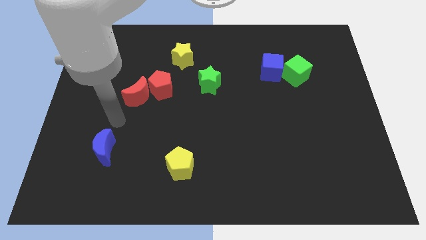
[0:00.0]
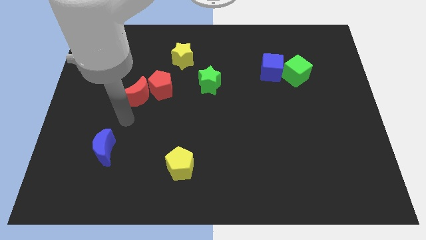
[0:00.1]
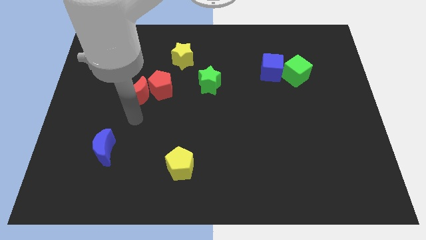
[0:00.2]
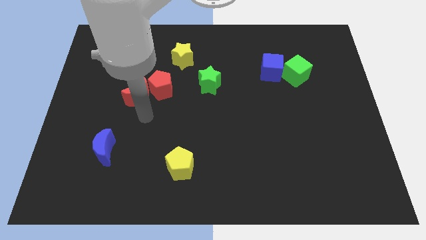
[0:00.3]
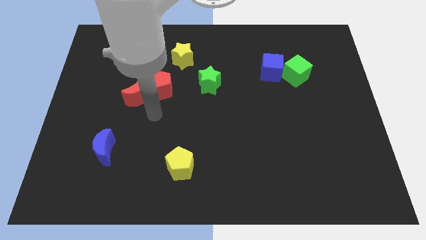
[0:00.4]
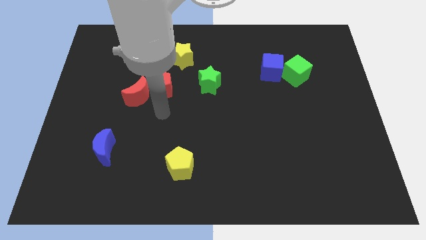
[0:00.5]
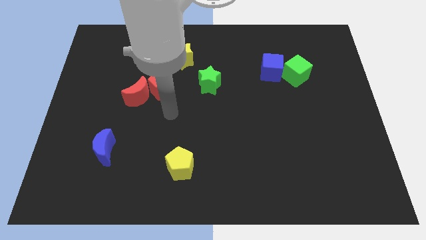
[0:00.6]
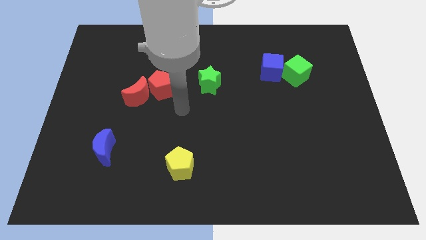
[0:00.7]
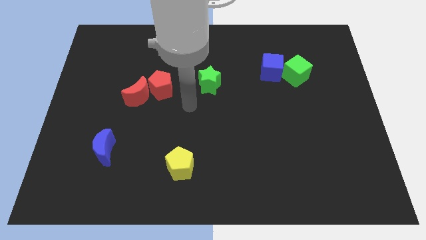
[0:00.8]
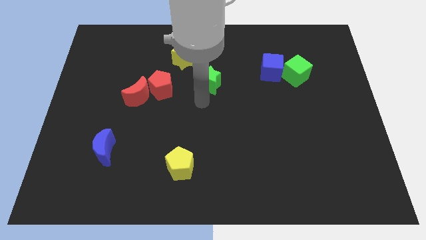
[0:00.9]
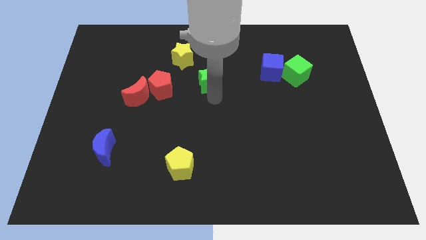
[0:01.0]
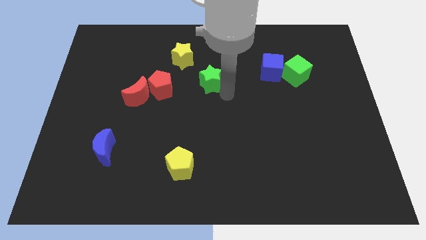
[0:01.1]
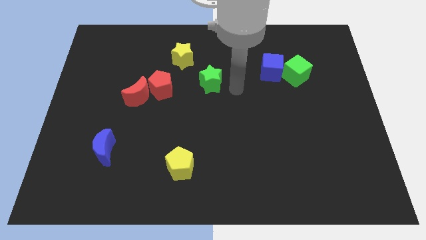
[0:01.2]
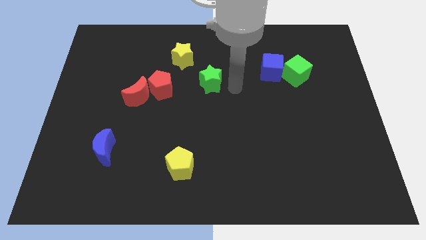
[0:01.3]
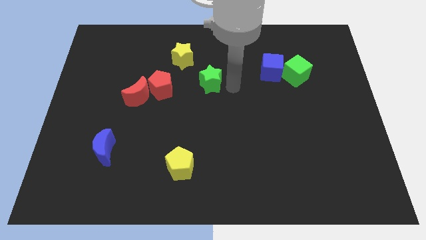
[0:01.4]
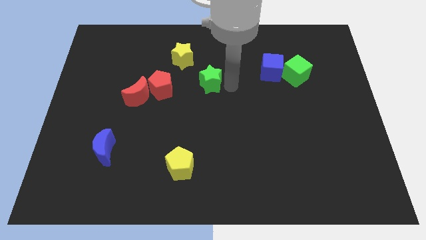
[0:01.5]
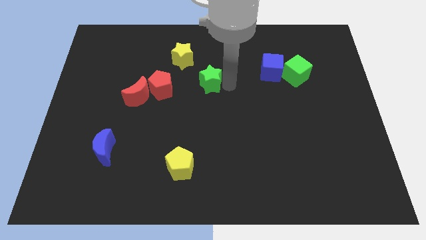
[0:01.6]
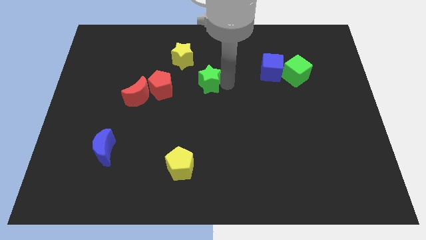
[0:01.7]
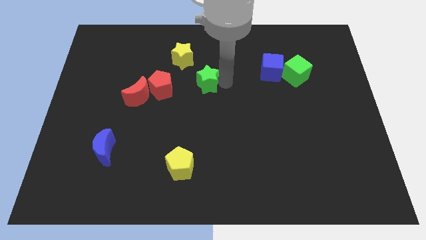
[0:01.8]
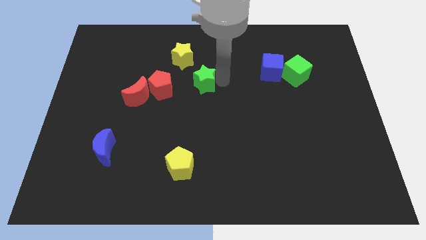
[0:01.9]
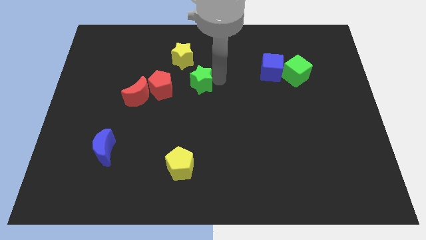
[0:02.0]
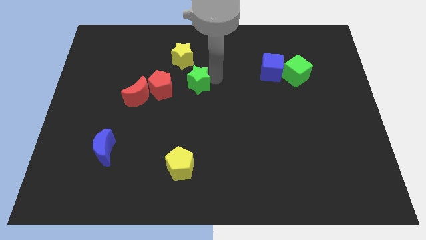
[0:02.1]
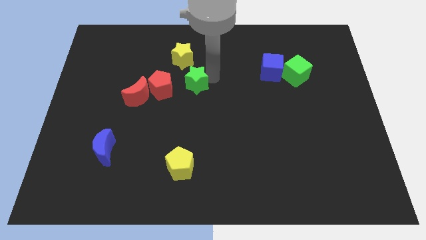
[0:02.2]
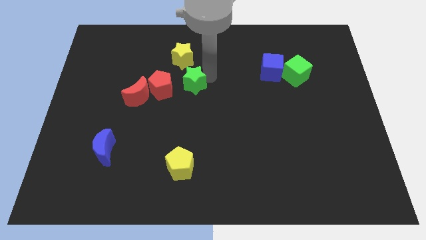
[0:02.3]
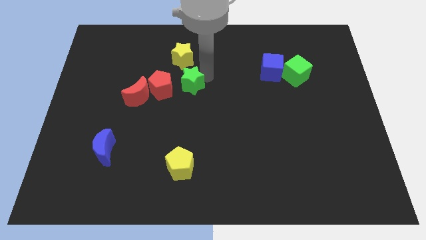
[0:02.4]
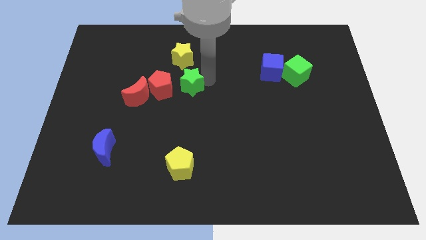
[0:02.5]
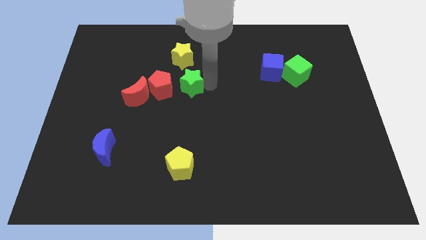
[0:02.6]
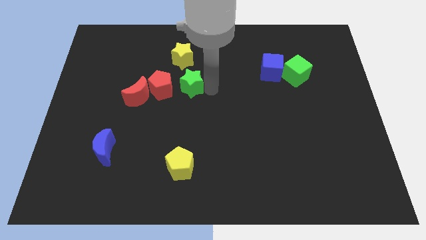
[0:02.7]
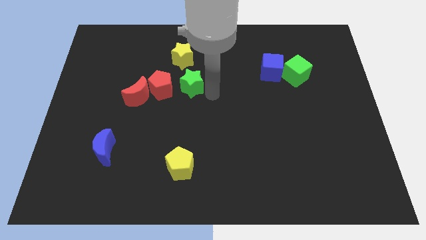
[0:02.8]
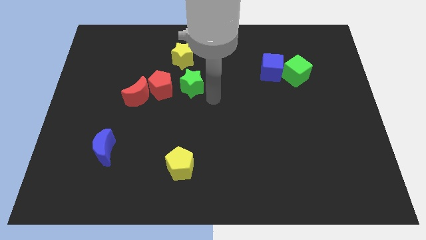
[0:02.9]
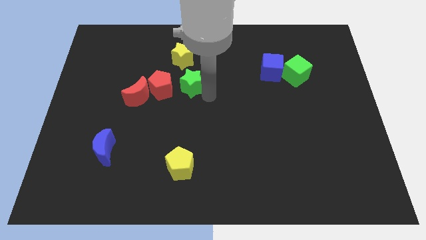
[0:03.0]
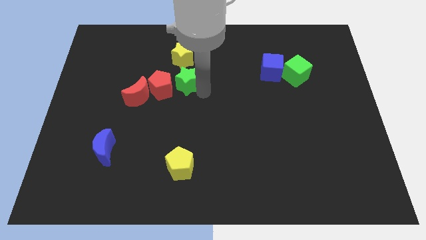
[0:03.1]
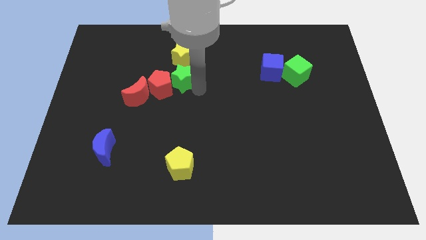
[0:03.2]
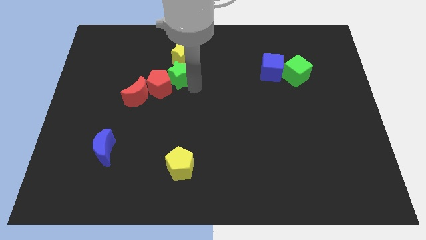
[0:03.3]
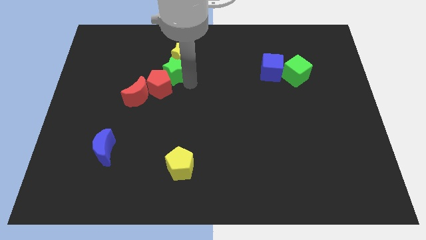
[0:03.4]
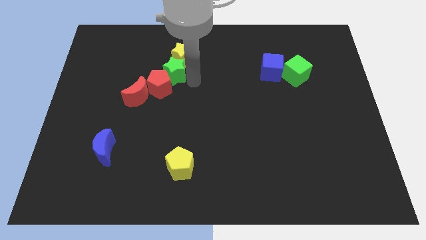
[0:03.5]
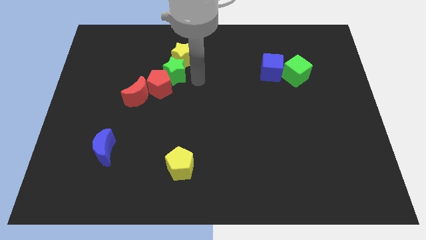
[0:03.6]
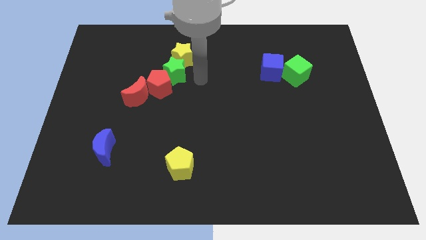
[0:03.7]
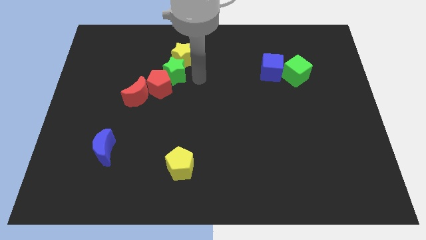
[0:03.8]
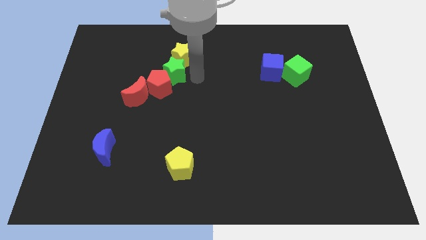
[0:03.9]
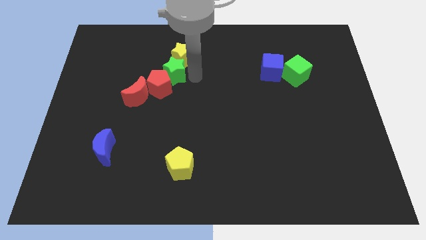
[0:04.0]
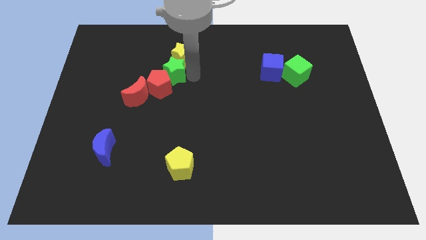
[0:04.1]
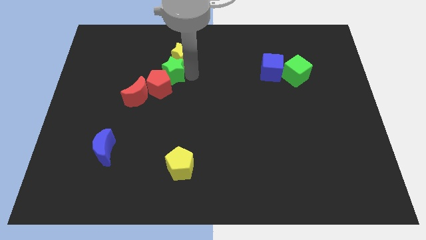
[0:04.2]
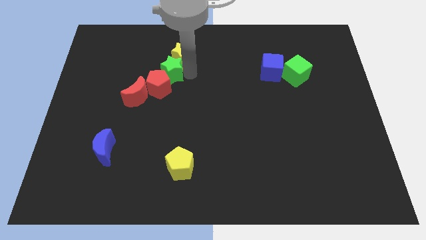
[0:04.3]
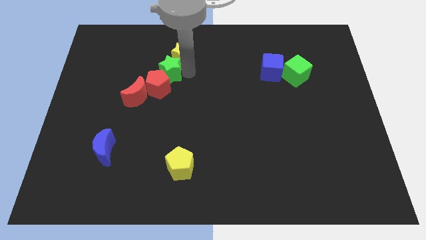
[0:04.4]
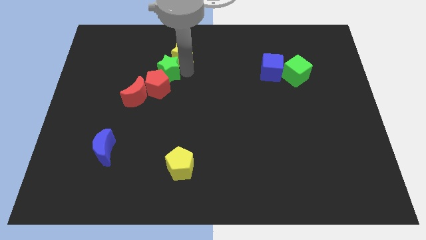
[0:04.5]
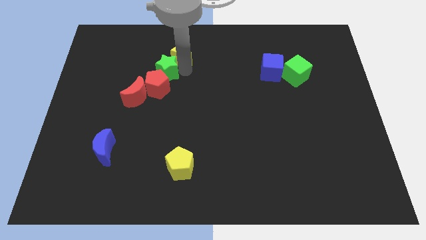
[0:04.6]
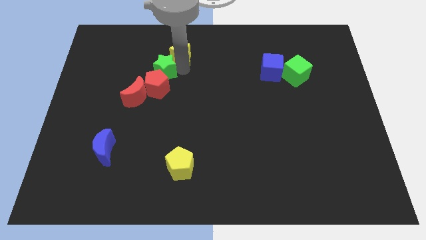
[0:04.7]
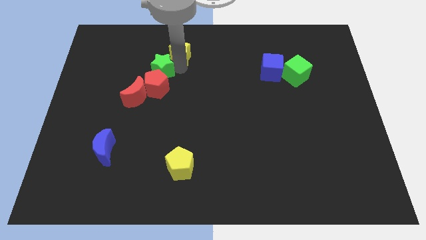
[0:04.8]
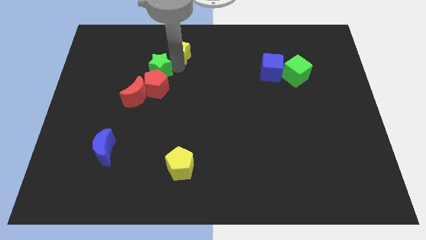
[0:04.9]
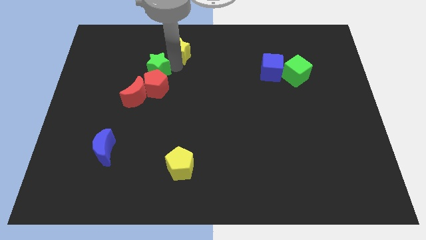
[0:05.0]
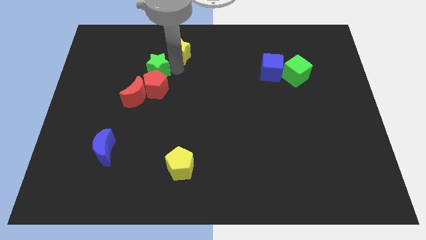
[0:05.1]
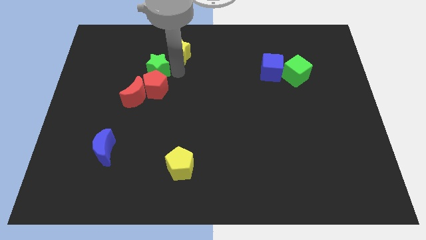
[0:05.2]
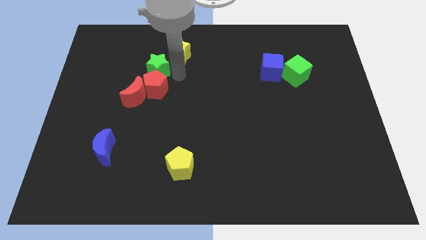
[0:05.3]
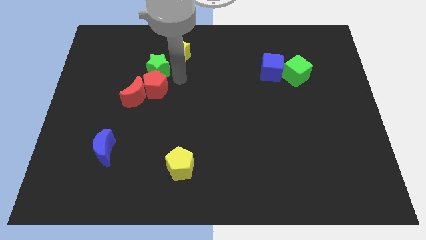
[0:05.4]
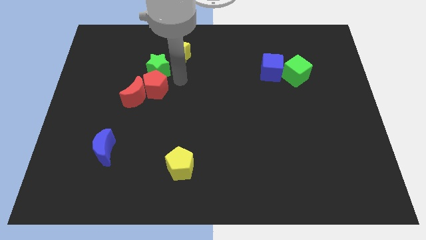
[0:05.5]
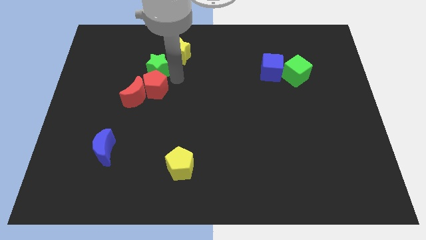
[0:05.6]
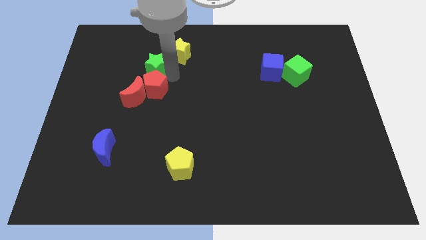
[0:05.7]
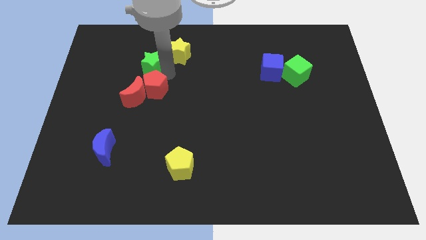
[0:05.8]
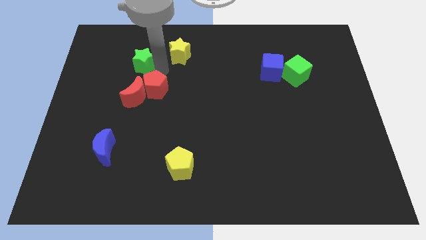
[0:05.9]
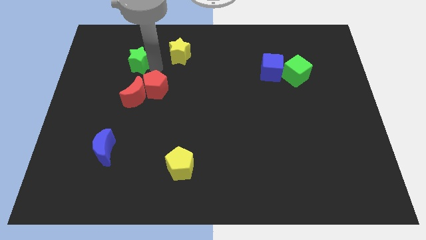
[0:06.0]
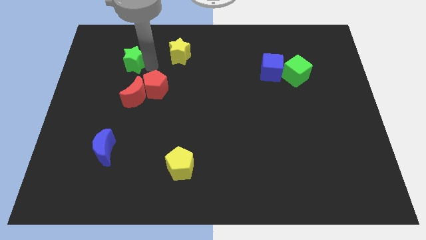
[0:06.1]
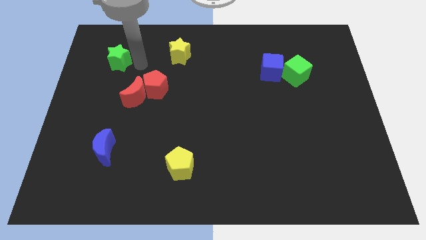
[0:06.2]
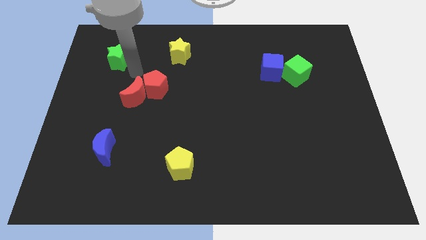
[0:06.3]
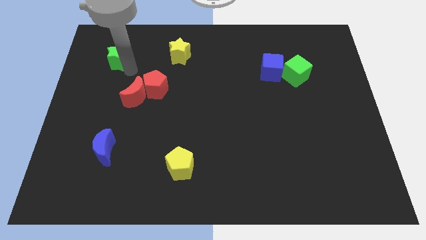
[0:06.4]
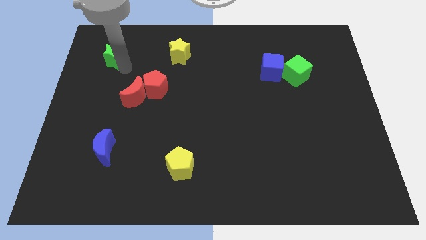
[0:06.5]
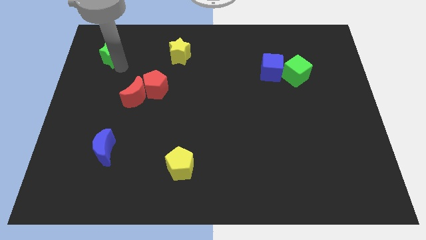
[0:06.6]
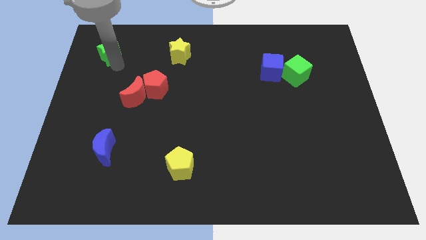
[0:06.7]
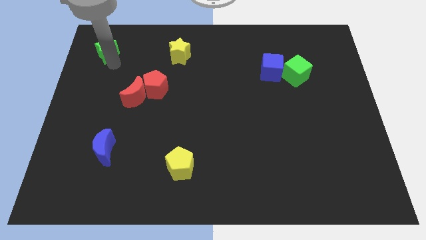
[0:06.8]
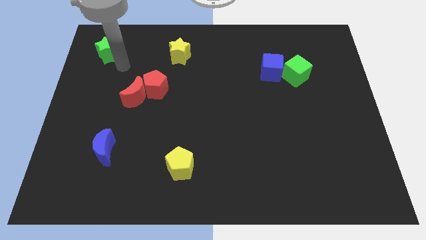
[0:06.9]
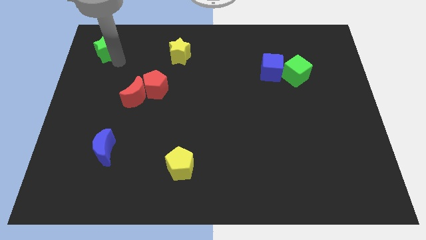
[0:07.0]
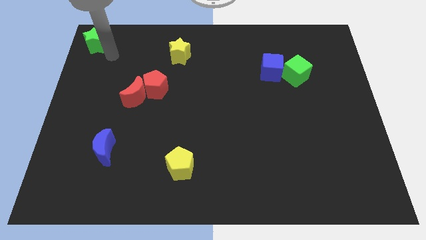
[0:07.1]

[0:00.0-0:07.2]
move the green star to the top left of the board
